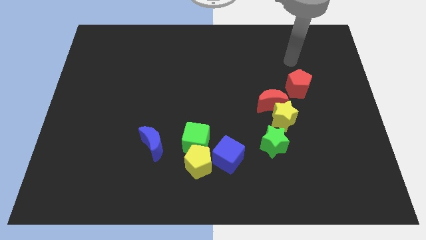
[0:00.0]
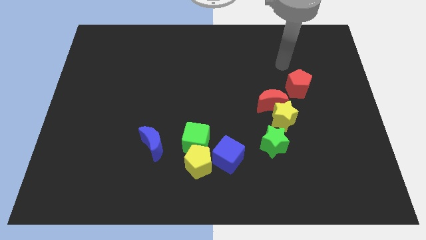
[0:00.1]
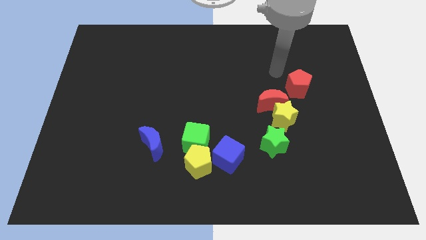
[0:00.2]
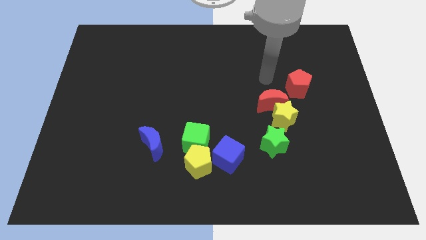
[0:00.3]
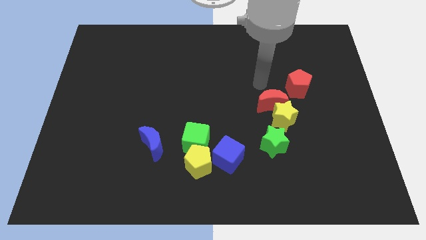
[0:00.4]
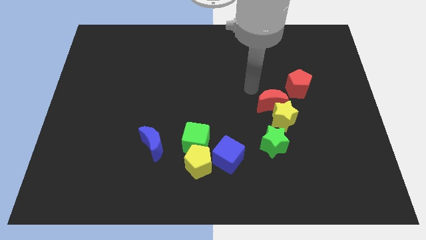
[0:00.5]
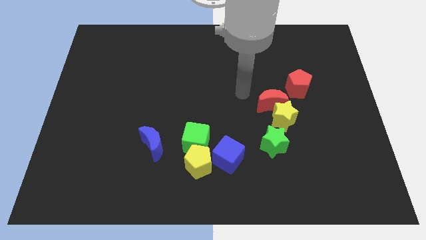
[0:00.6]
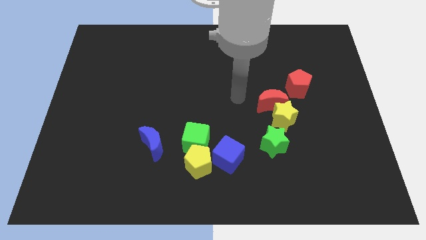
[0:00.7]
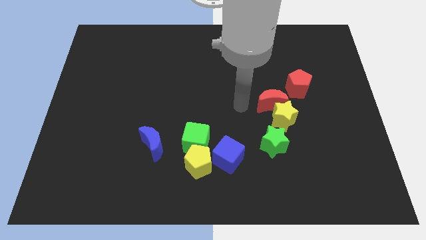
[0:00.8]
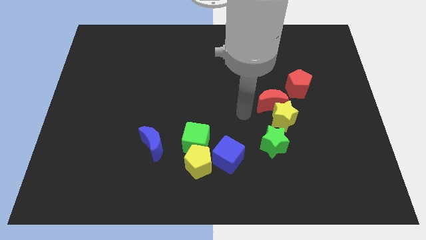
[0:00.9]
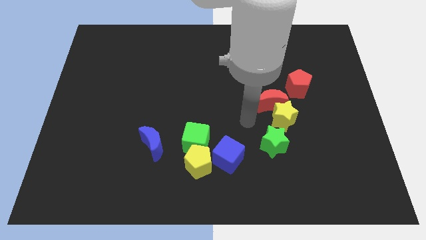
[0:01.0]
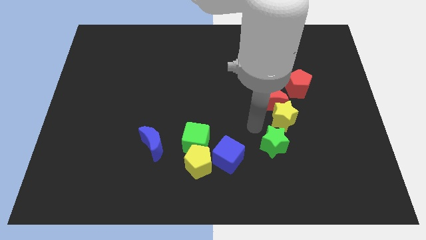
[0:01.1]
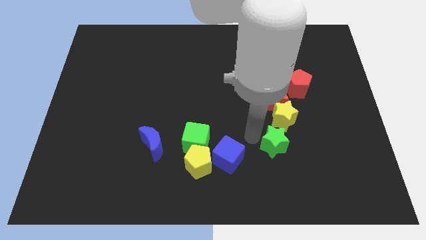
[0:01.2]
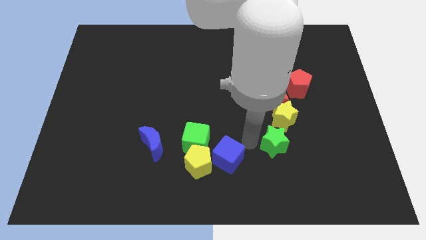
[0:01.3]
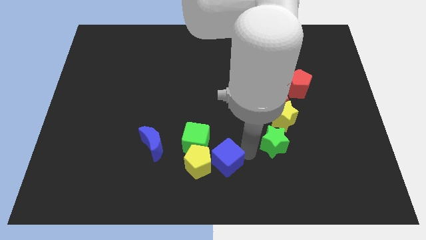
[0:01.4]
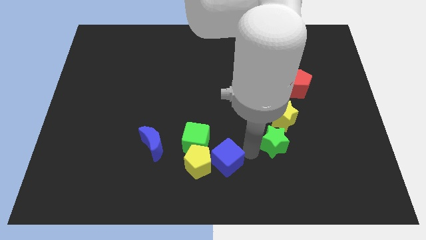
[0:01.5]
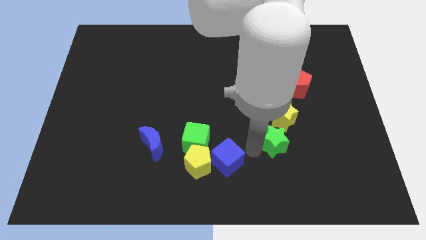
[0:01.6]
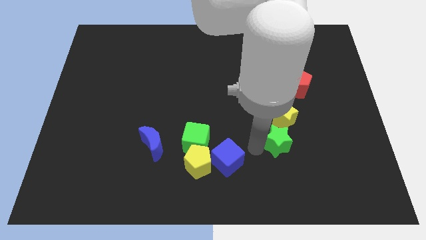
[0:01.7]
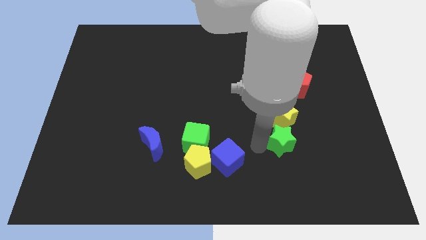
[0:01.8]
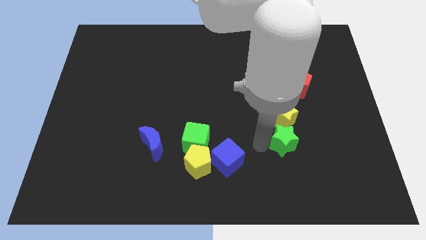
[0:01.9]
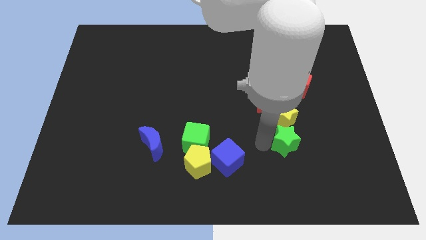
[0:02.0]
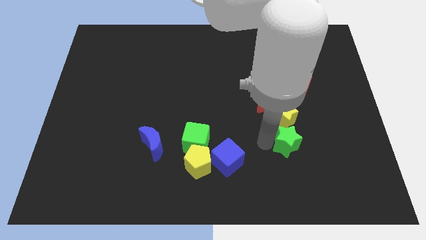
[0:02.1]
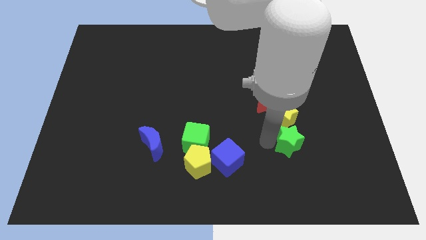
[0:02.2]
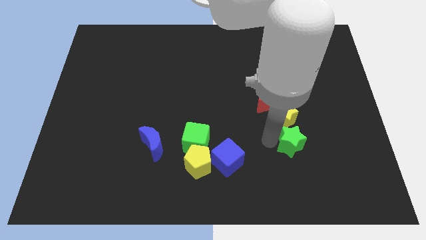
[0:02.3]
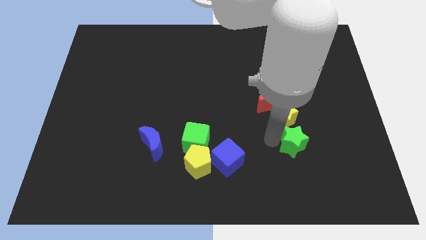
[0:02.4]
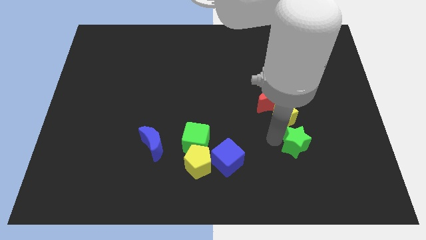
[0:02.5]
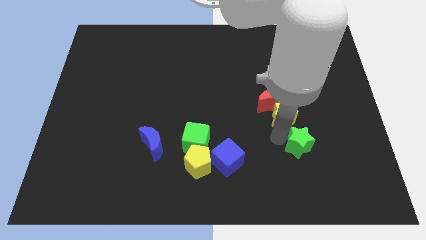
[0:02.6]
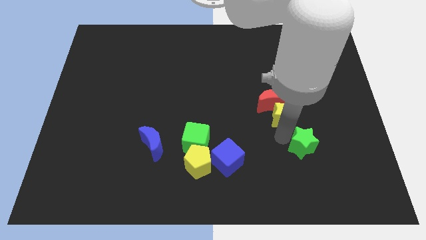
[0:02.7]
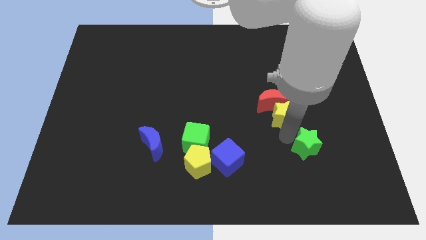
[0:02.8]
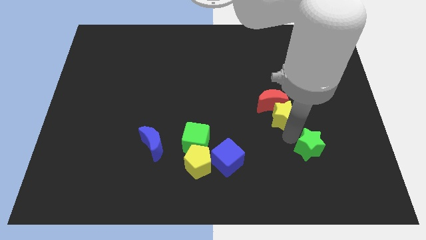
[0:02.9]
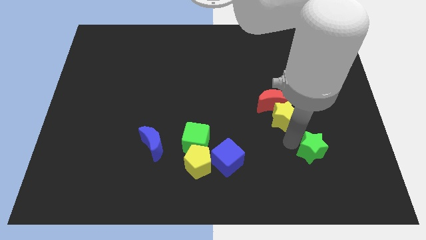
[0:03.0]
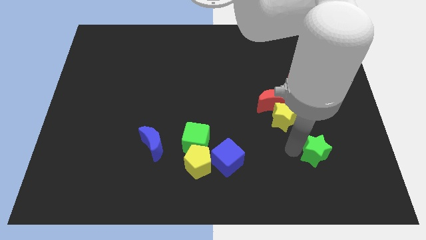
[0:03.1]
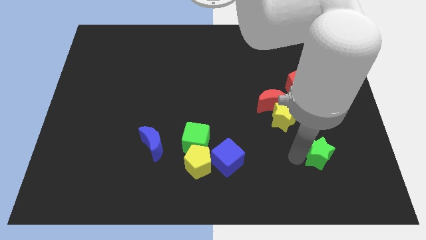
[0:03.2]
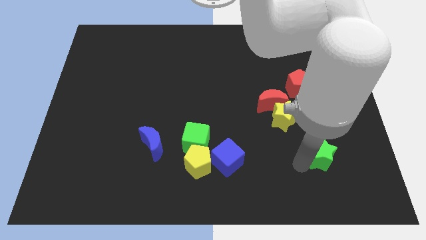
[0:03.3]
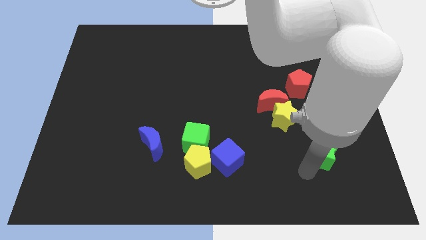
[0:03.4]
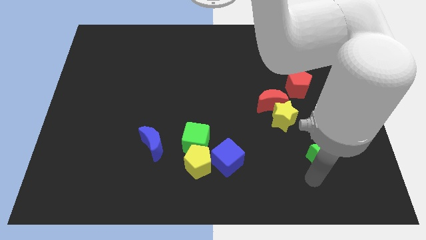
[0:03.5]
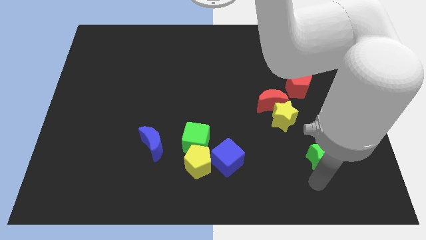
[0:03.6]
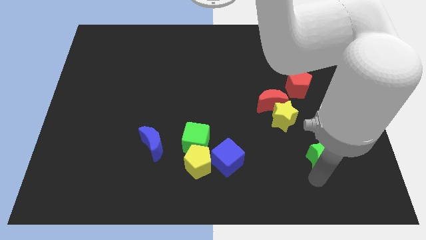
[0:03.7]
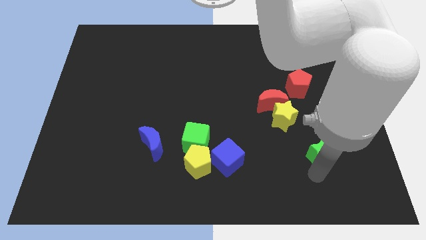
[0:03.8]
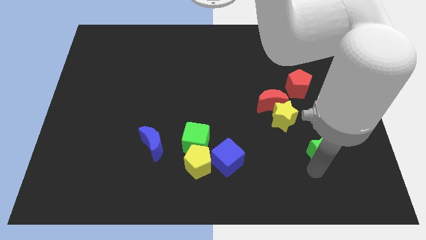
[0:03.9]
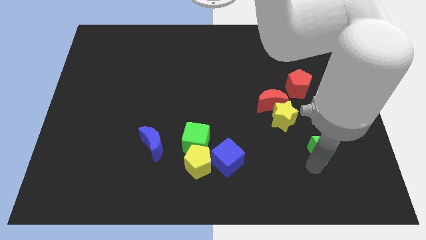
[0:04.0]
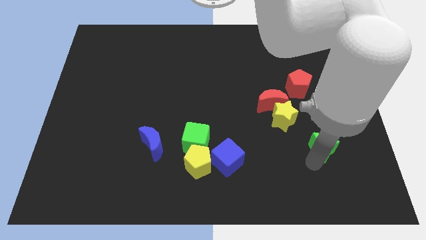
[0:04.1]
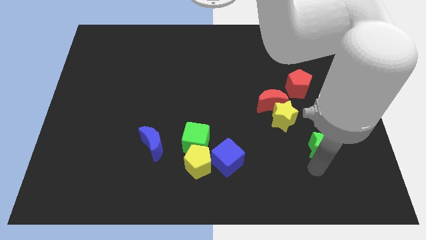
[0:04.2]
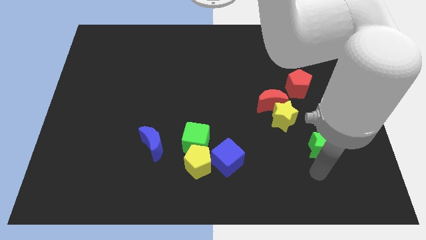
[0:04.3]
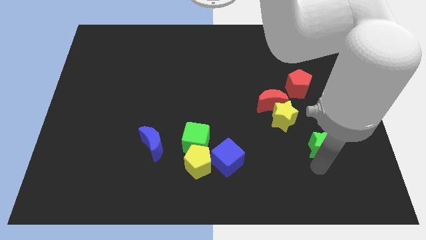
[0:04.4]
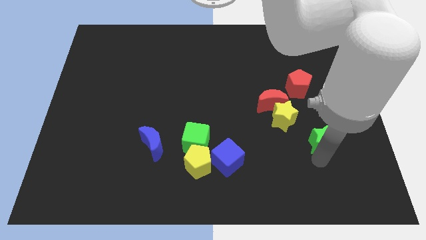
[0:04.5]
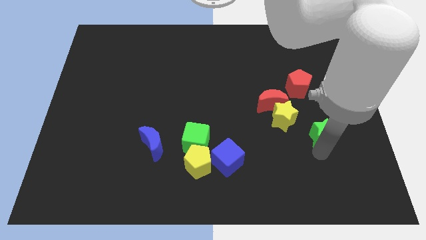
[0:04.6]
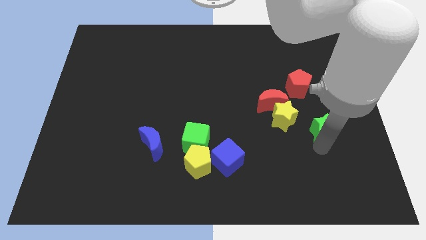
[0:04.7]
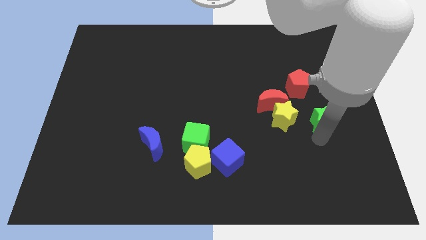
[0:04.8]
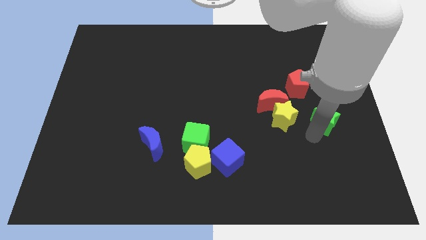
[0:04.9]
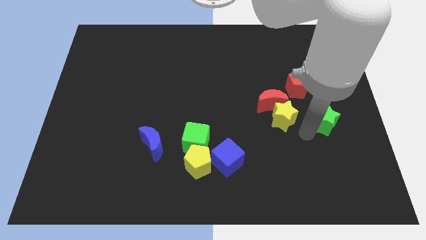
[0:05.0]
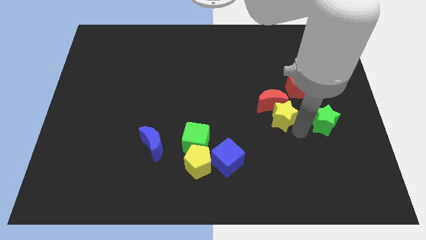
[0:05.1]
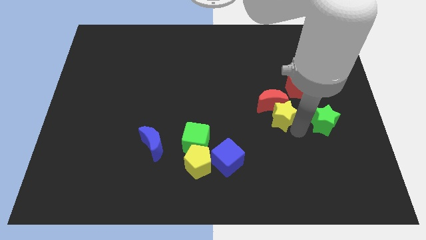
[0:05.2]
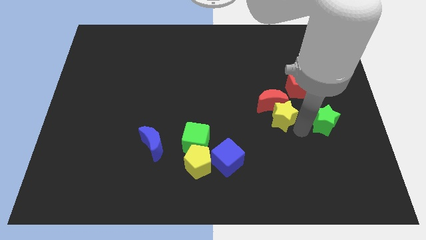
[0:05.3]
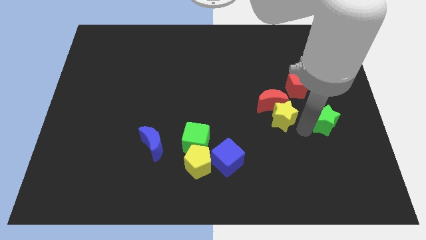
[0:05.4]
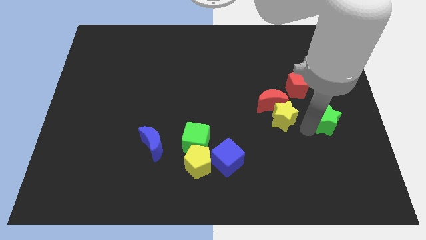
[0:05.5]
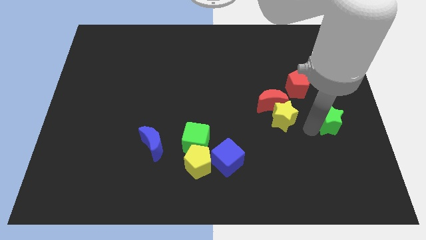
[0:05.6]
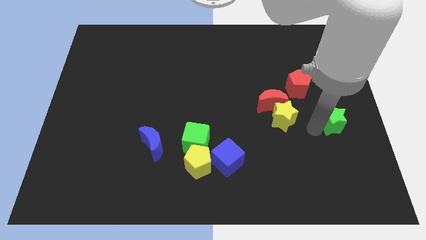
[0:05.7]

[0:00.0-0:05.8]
slide the green star to the center right
